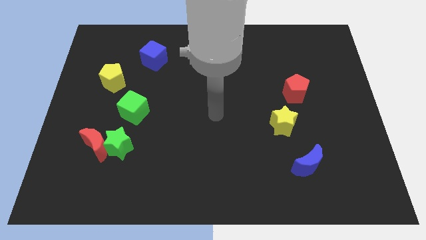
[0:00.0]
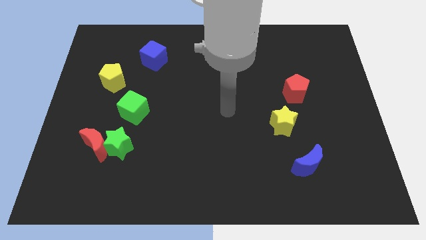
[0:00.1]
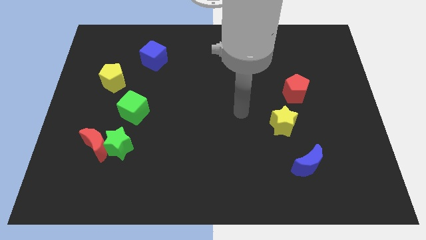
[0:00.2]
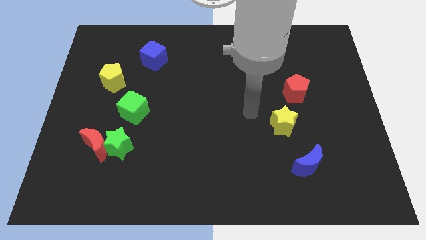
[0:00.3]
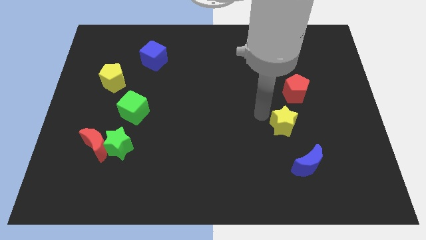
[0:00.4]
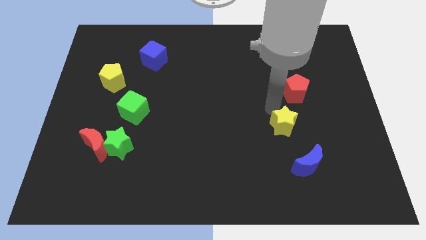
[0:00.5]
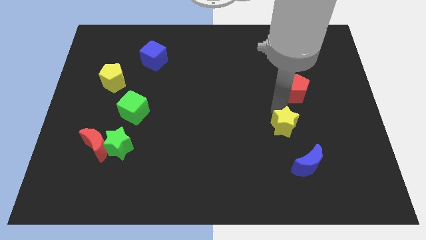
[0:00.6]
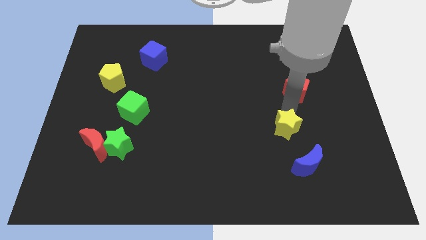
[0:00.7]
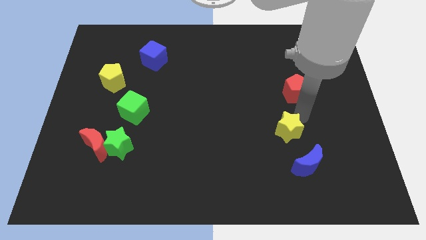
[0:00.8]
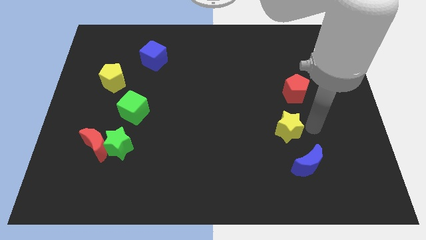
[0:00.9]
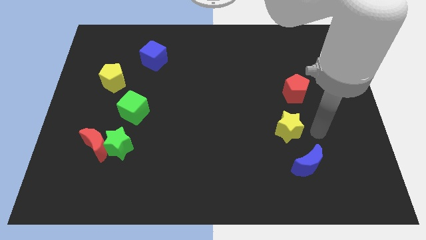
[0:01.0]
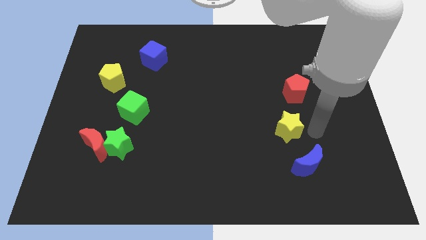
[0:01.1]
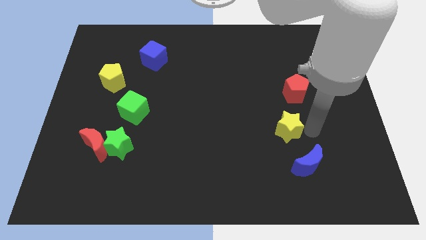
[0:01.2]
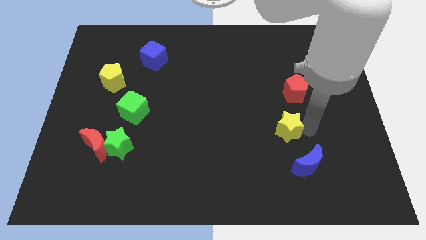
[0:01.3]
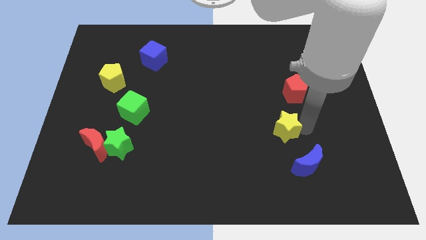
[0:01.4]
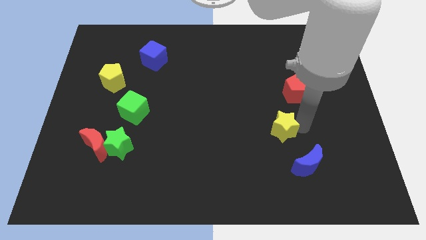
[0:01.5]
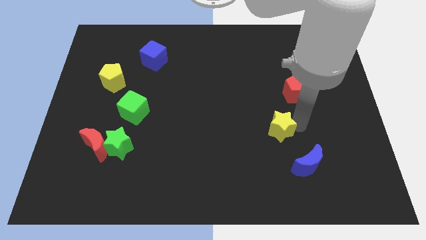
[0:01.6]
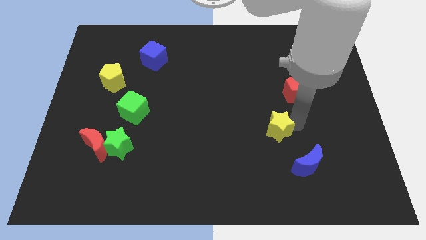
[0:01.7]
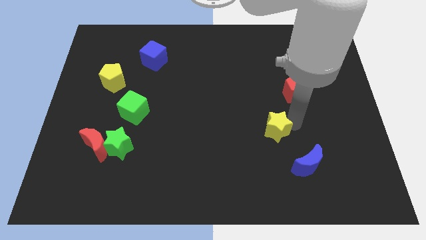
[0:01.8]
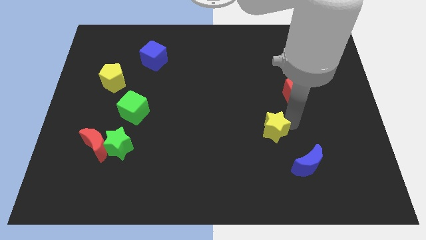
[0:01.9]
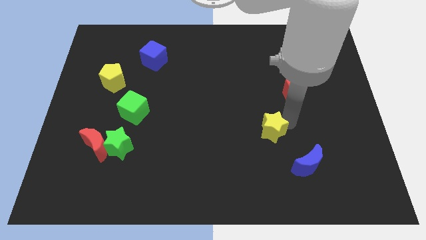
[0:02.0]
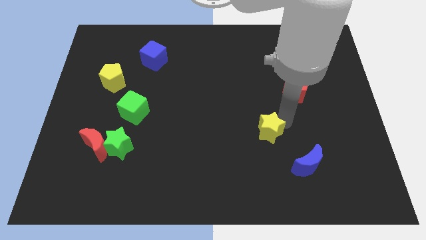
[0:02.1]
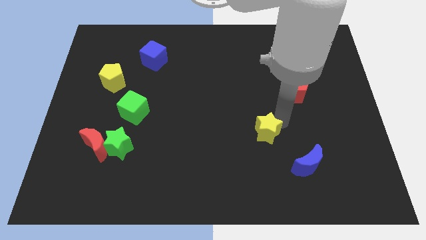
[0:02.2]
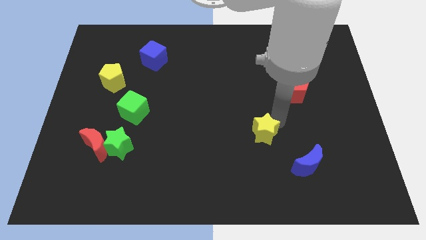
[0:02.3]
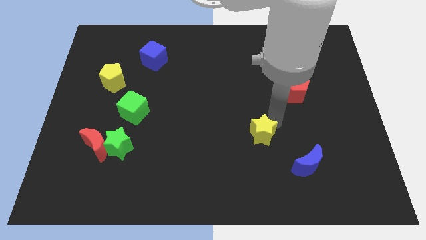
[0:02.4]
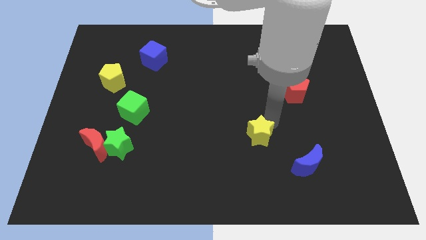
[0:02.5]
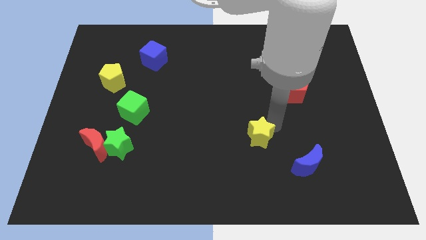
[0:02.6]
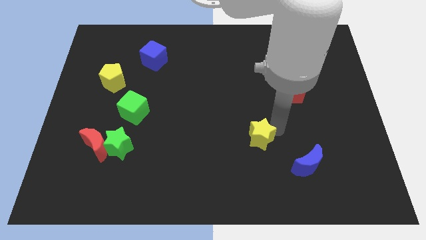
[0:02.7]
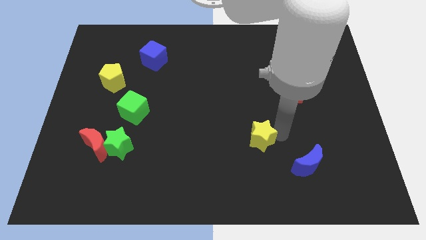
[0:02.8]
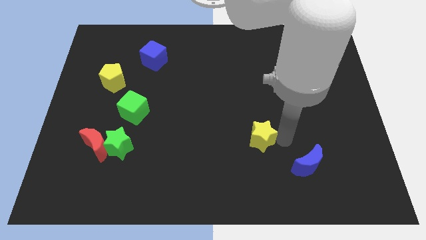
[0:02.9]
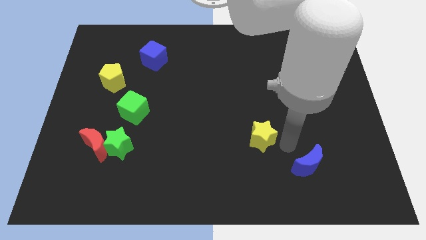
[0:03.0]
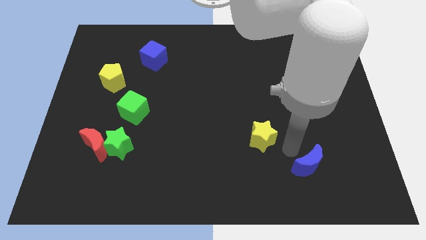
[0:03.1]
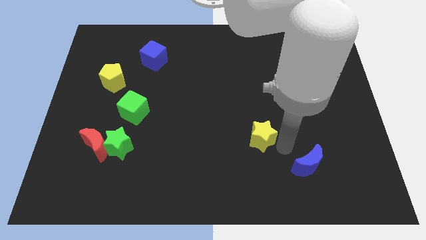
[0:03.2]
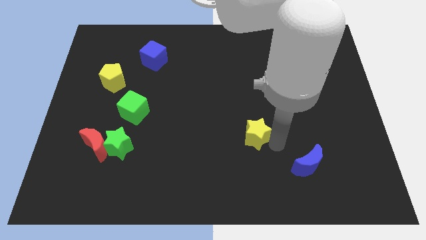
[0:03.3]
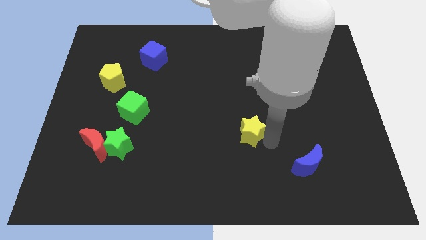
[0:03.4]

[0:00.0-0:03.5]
move the yellow star left a bit

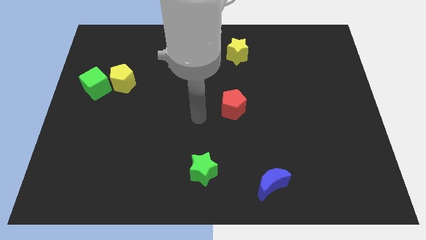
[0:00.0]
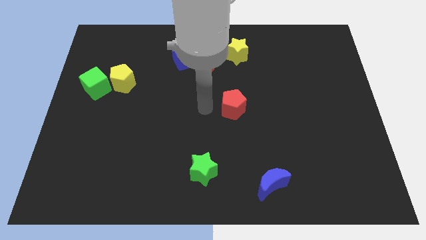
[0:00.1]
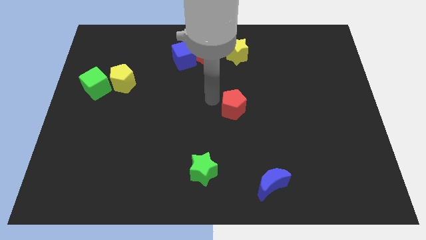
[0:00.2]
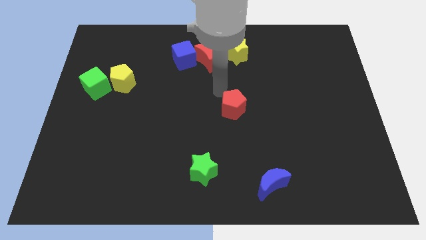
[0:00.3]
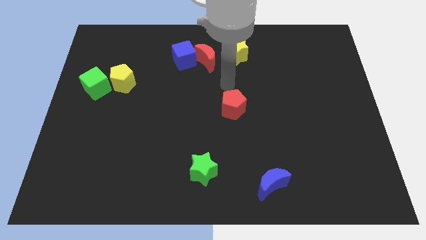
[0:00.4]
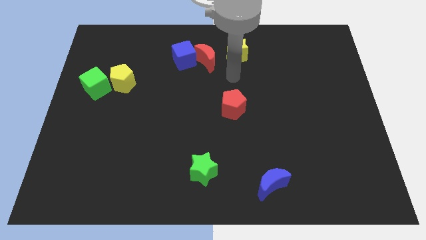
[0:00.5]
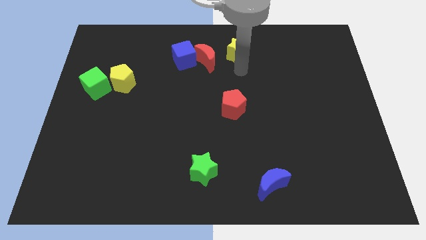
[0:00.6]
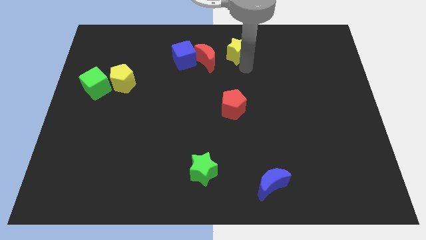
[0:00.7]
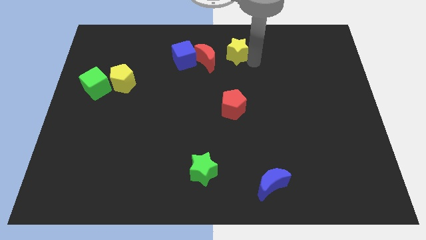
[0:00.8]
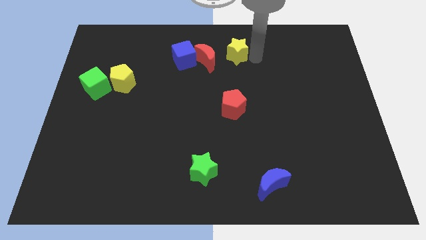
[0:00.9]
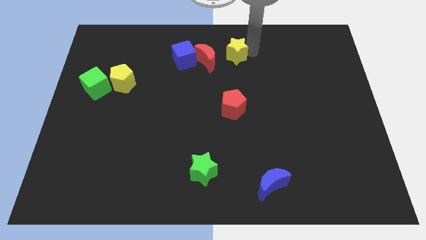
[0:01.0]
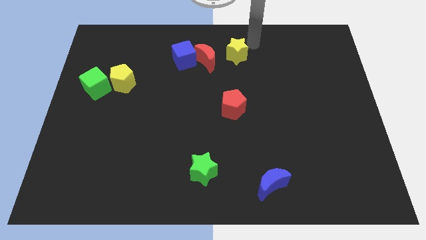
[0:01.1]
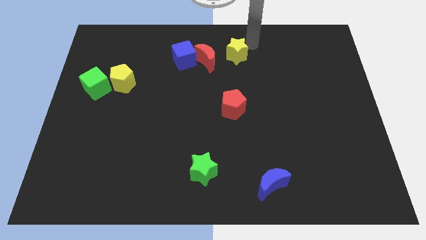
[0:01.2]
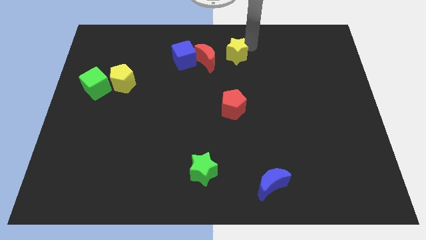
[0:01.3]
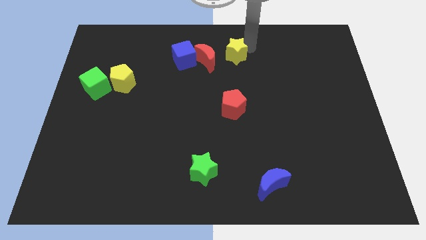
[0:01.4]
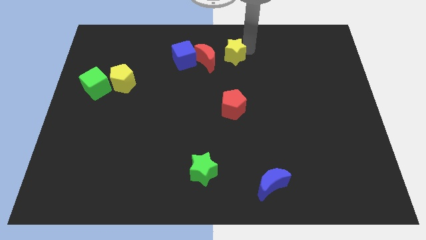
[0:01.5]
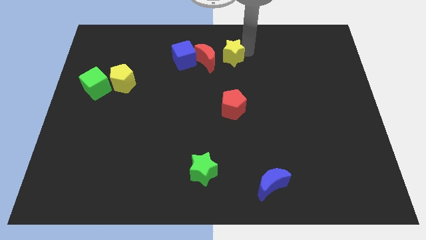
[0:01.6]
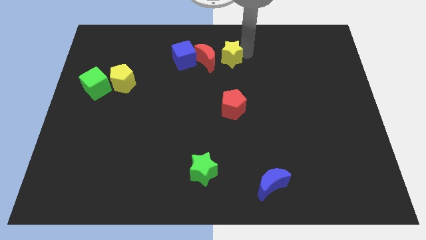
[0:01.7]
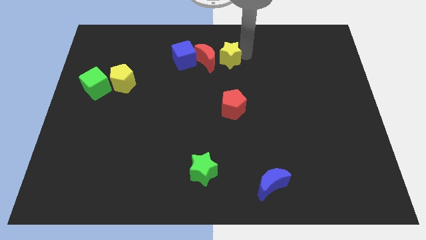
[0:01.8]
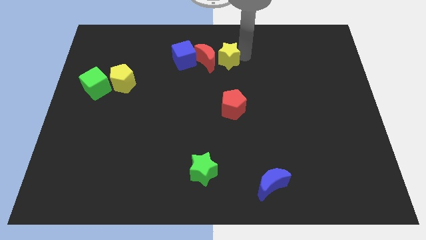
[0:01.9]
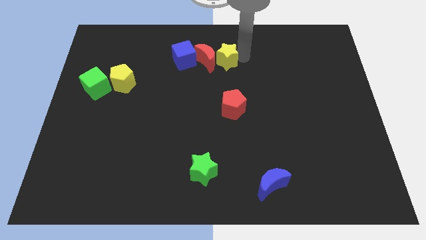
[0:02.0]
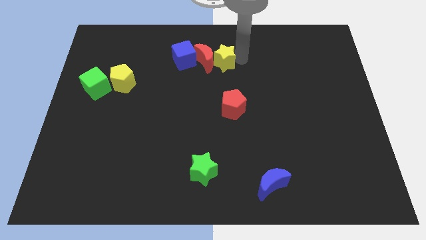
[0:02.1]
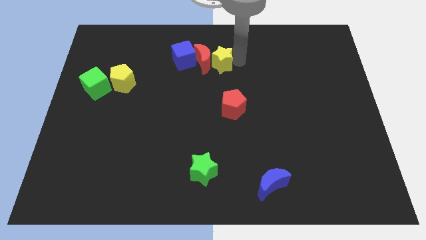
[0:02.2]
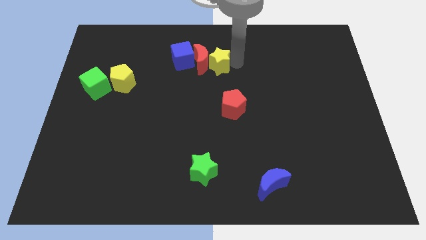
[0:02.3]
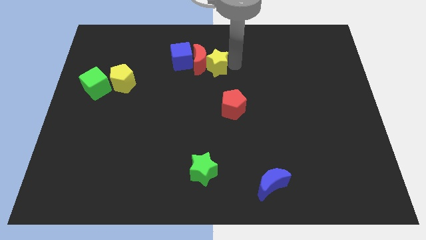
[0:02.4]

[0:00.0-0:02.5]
slightly push the yellow star diagonally downwards and to the left

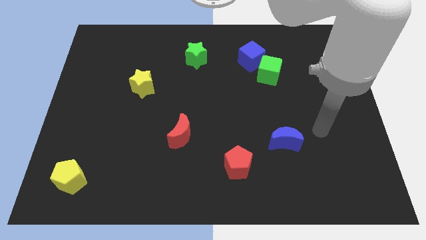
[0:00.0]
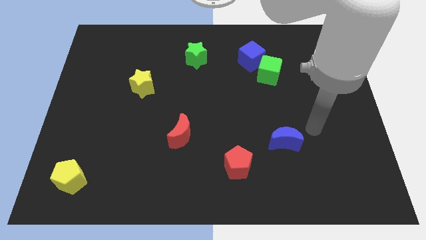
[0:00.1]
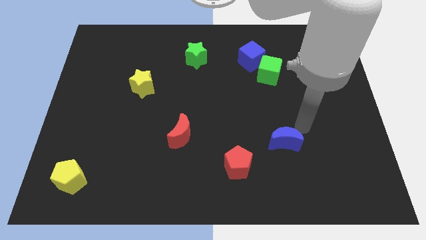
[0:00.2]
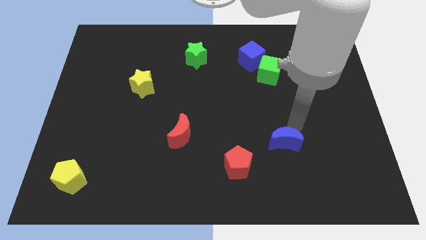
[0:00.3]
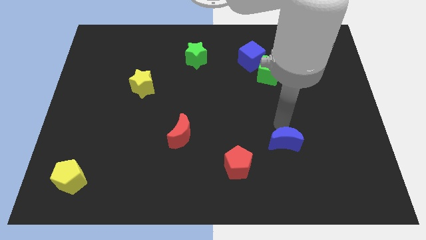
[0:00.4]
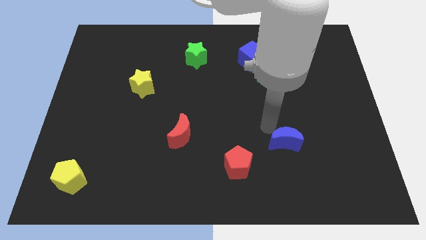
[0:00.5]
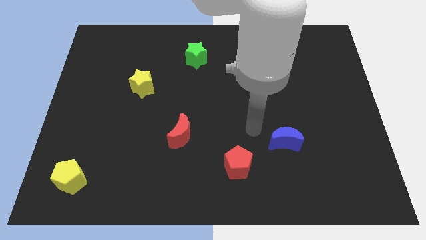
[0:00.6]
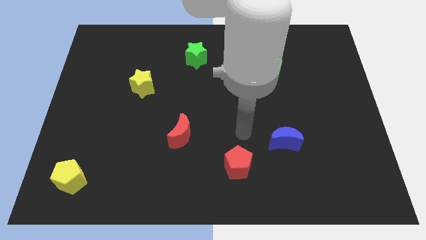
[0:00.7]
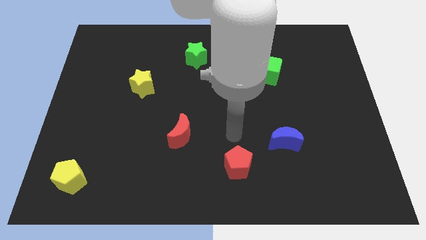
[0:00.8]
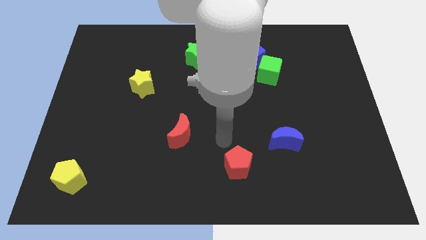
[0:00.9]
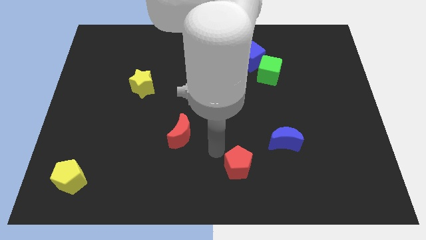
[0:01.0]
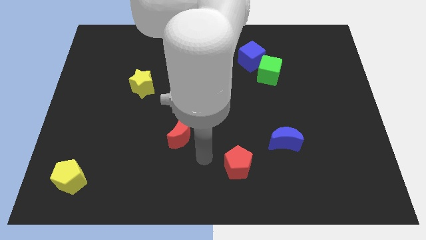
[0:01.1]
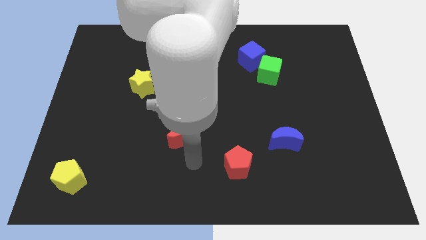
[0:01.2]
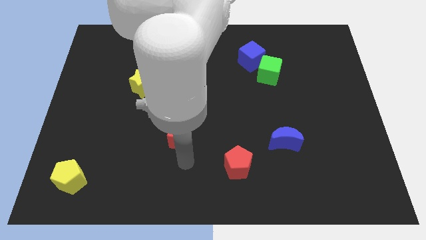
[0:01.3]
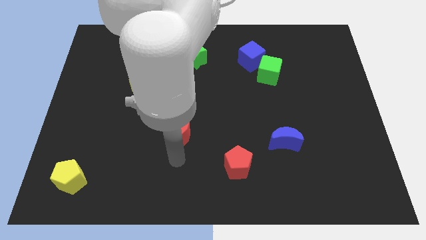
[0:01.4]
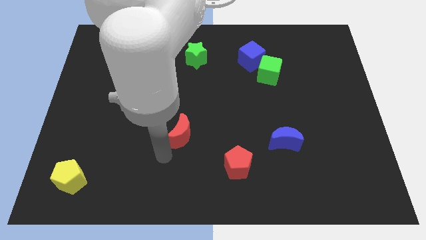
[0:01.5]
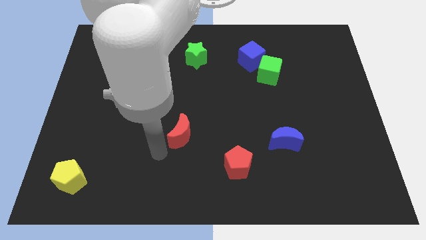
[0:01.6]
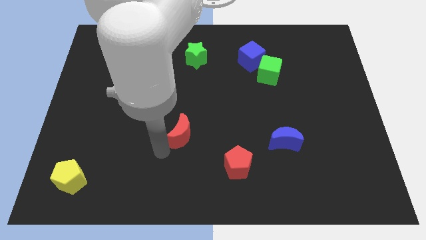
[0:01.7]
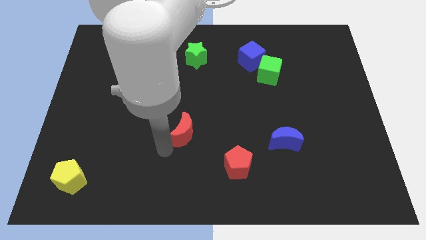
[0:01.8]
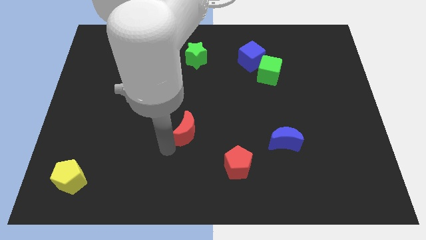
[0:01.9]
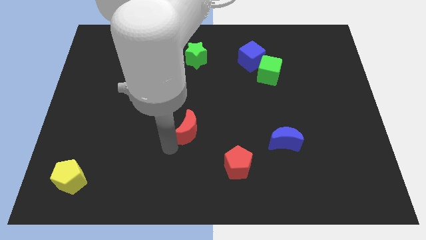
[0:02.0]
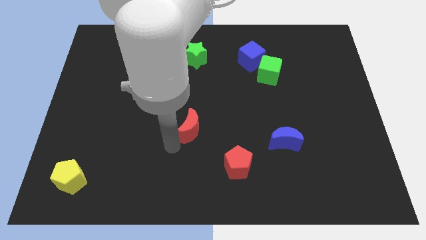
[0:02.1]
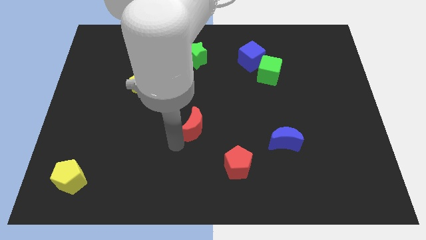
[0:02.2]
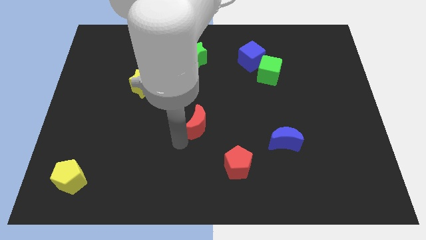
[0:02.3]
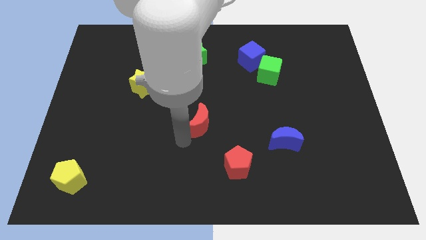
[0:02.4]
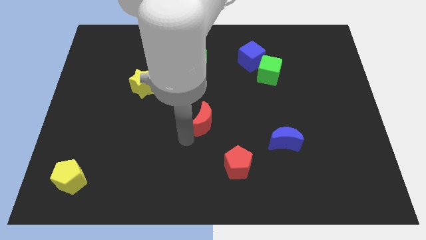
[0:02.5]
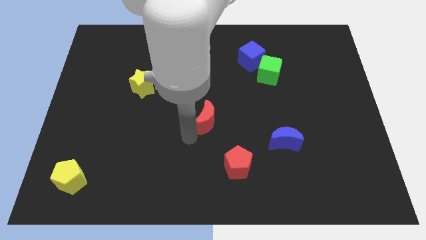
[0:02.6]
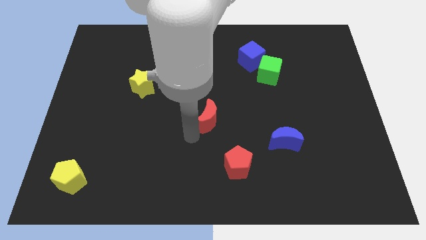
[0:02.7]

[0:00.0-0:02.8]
slide the red moon diagonally upwards and right a bit
